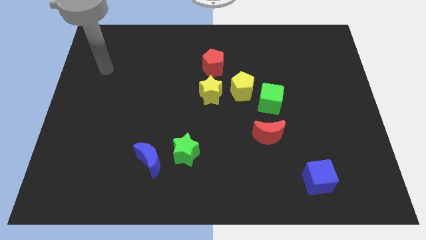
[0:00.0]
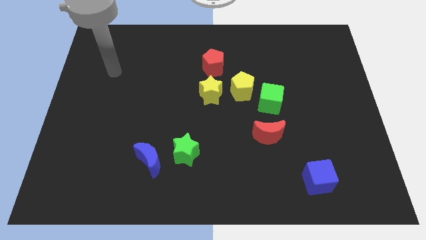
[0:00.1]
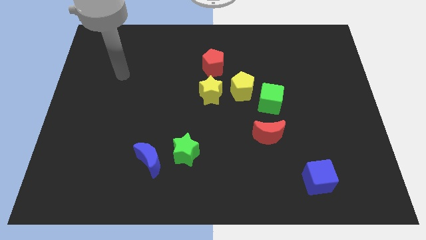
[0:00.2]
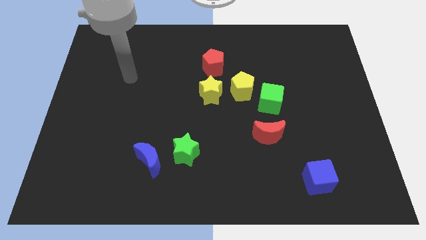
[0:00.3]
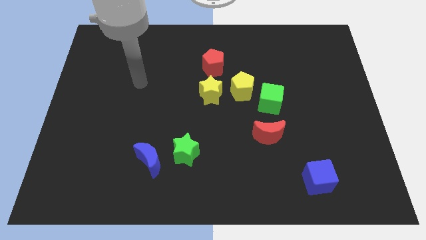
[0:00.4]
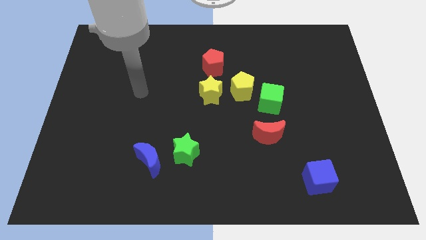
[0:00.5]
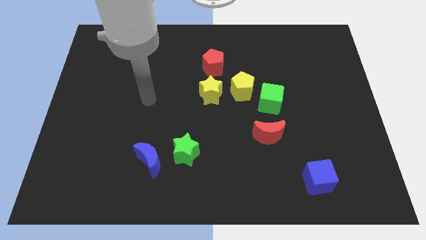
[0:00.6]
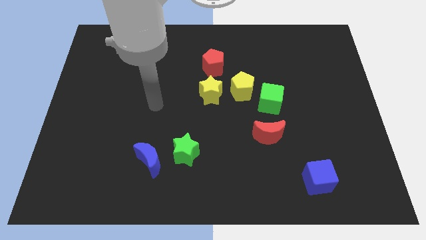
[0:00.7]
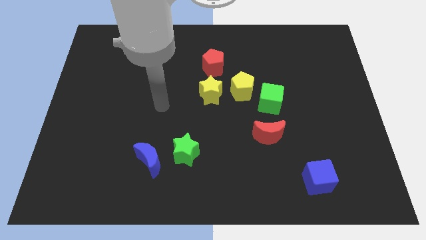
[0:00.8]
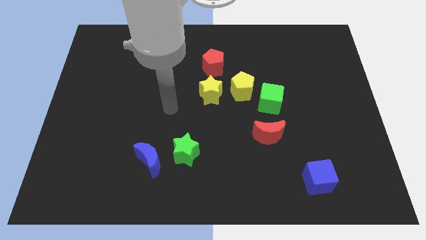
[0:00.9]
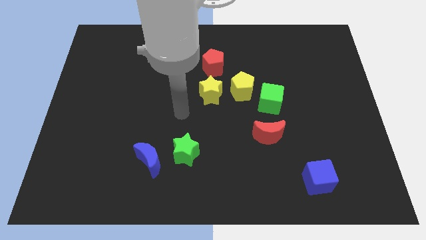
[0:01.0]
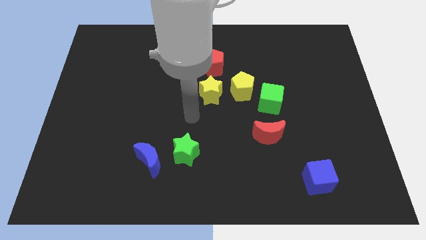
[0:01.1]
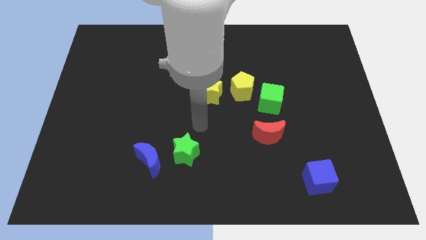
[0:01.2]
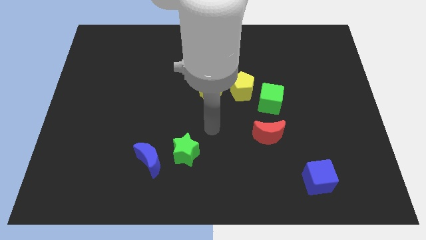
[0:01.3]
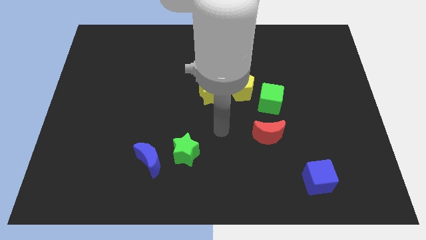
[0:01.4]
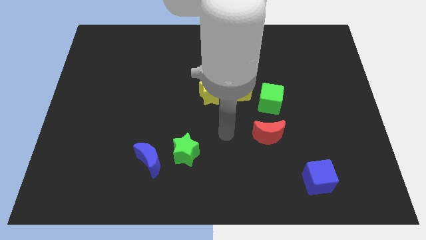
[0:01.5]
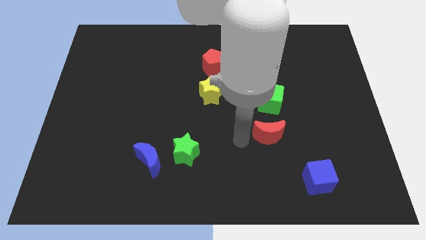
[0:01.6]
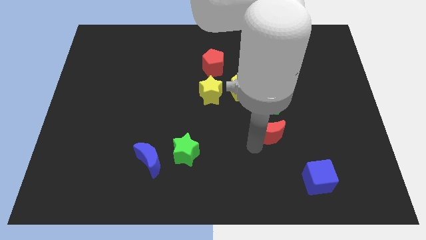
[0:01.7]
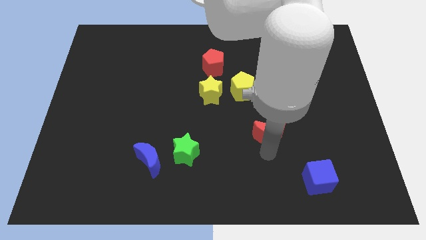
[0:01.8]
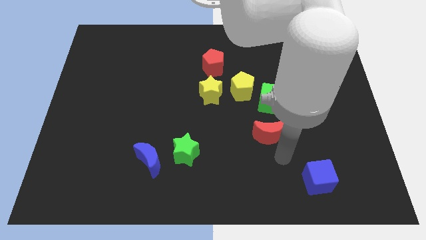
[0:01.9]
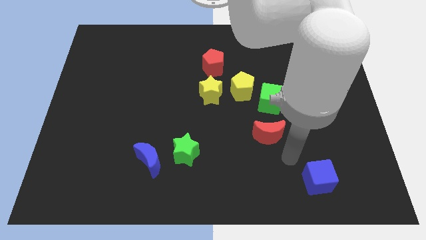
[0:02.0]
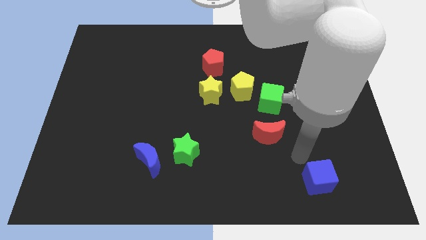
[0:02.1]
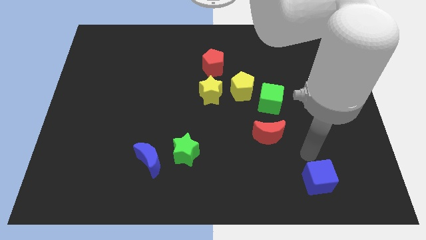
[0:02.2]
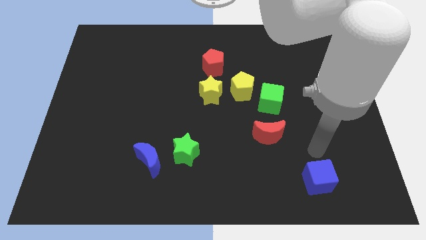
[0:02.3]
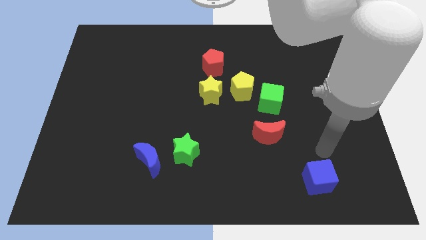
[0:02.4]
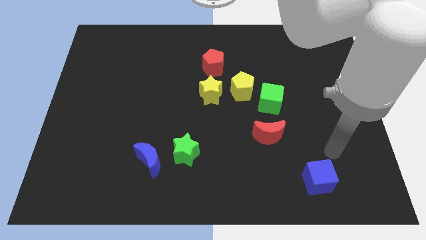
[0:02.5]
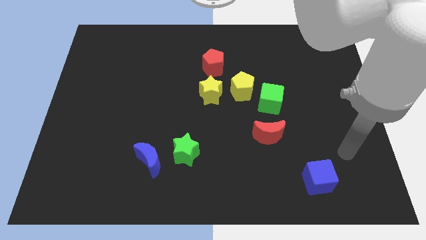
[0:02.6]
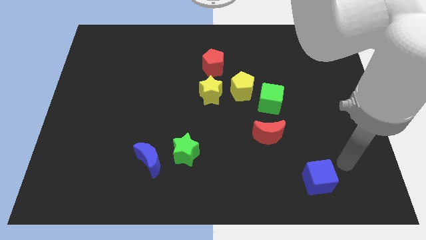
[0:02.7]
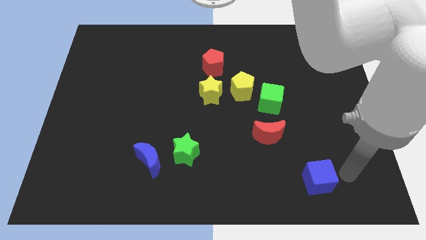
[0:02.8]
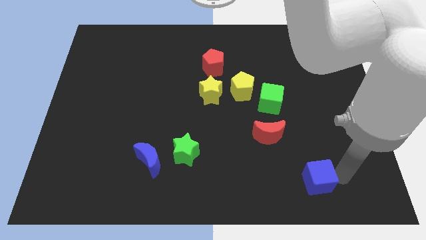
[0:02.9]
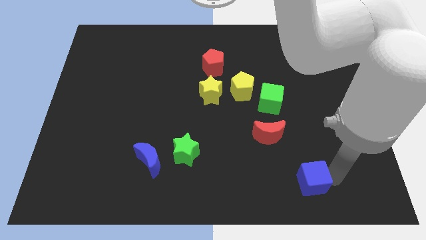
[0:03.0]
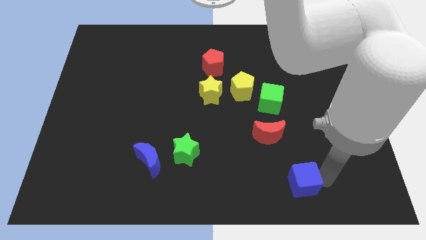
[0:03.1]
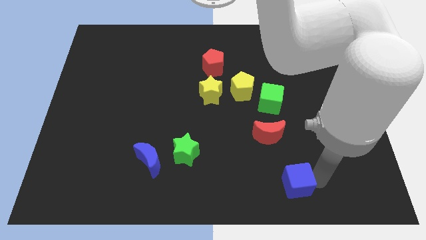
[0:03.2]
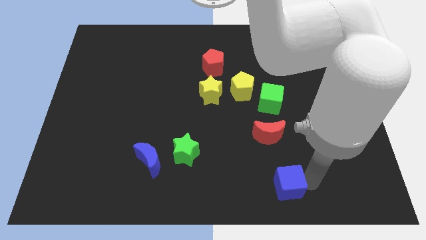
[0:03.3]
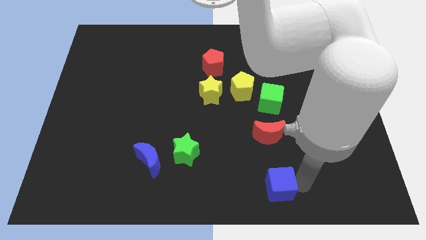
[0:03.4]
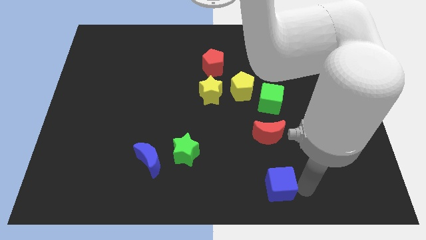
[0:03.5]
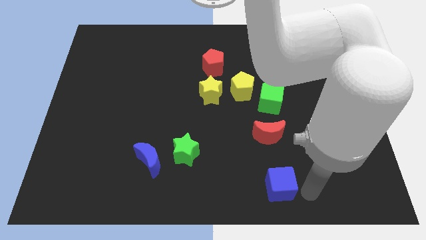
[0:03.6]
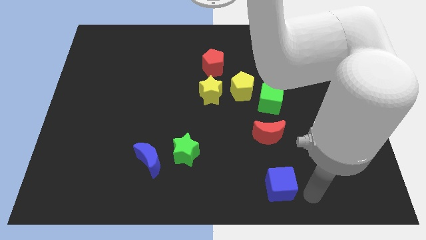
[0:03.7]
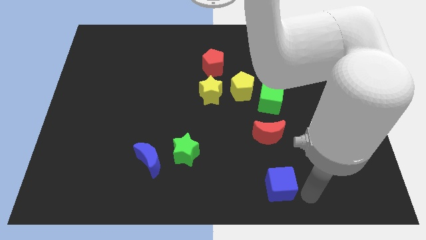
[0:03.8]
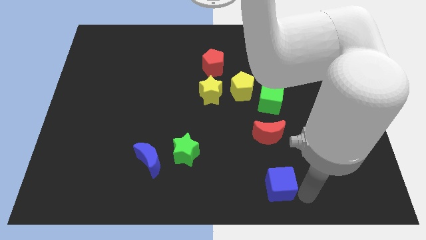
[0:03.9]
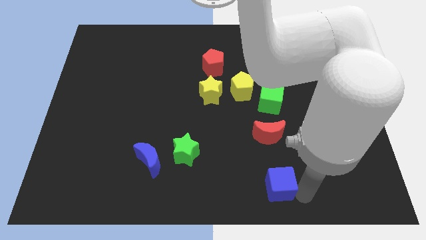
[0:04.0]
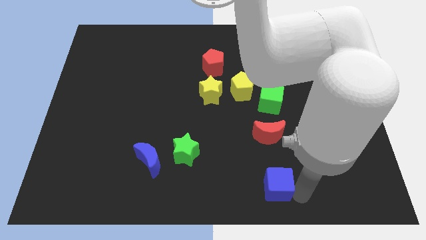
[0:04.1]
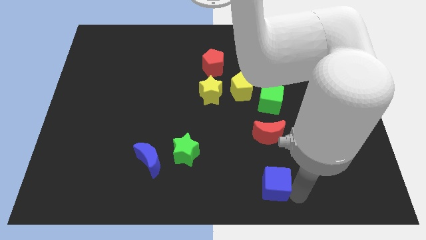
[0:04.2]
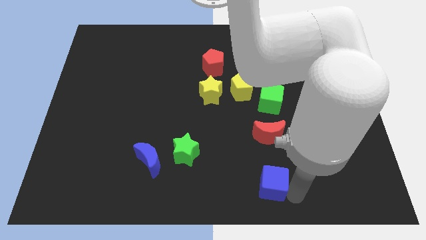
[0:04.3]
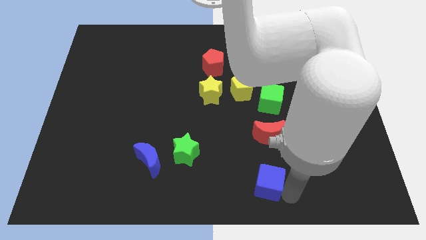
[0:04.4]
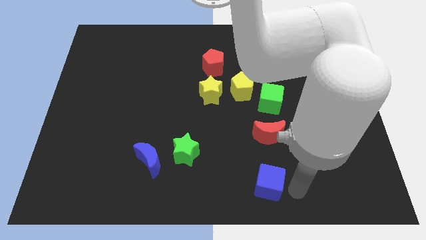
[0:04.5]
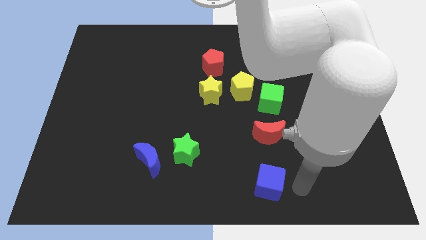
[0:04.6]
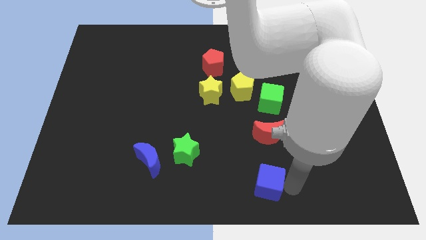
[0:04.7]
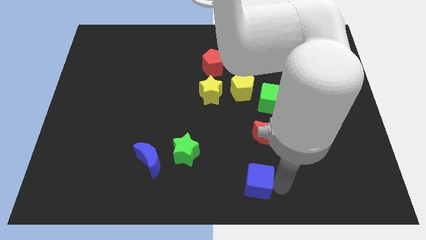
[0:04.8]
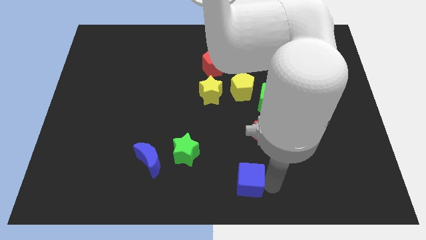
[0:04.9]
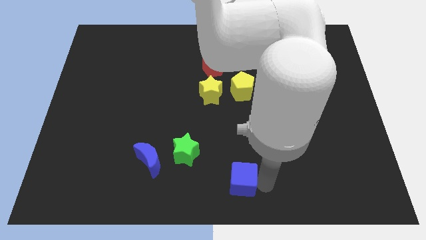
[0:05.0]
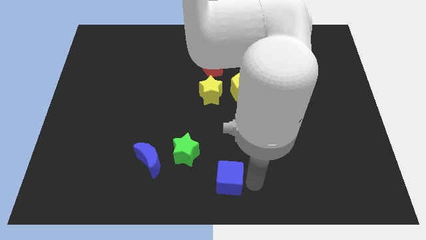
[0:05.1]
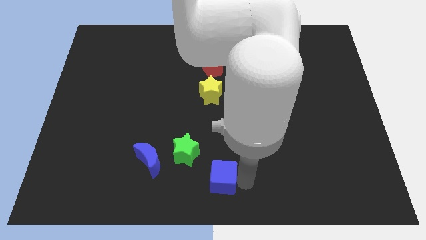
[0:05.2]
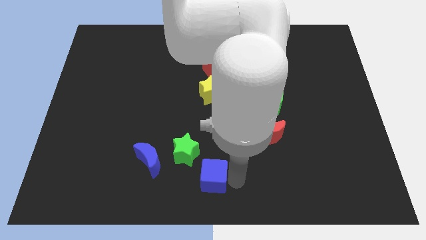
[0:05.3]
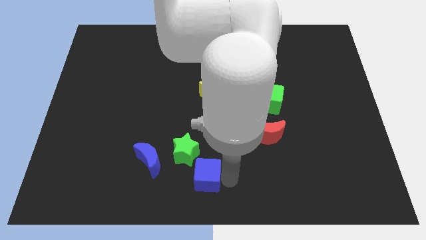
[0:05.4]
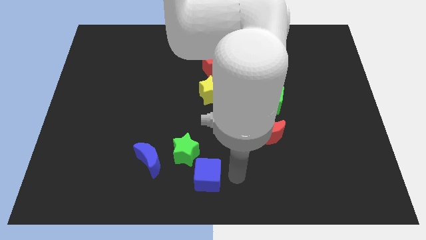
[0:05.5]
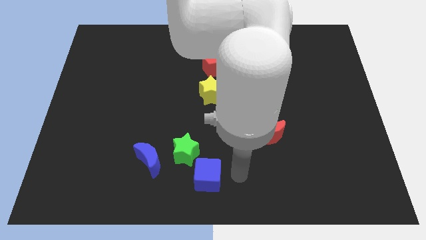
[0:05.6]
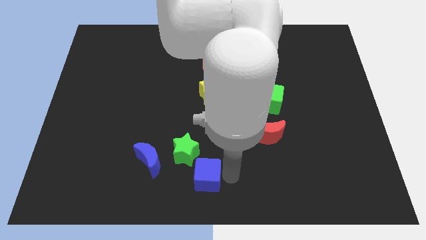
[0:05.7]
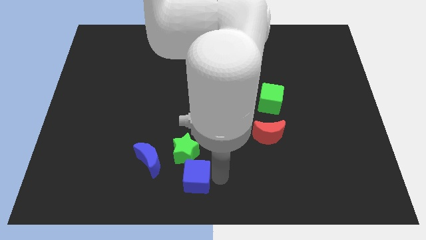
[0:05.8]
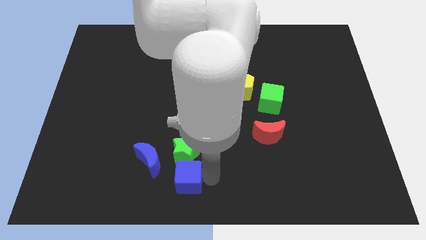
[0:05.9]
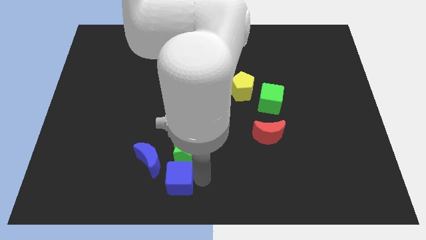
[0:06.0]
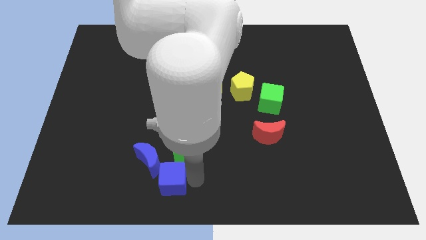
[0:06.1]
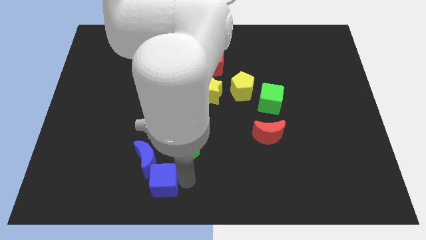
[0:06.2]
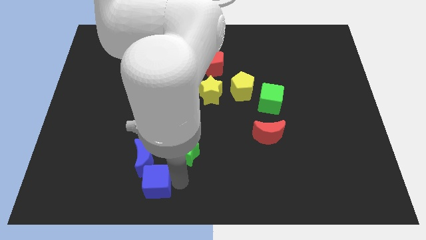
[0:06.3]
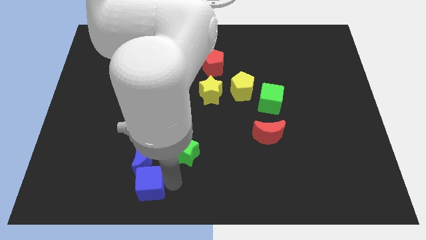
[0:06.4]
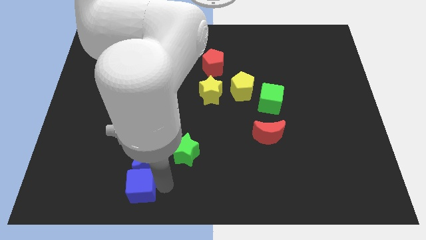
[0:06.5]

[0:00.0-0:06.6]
put the blue cube to the bottom left of the blue moon
